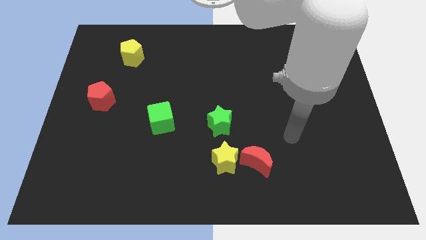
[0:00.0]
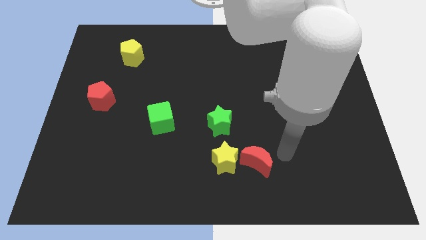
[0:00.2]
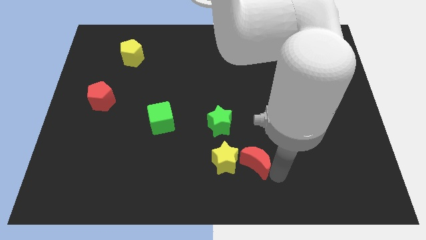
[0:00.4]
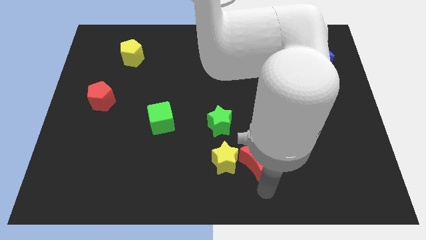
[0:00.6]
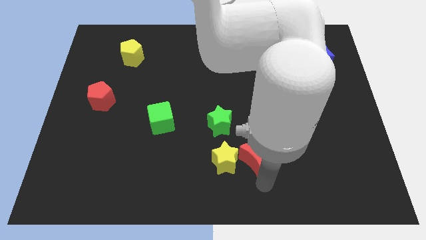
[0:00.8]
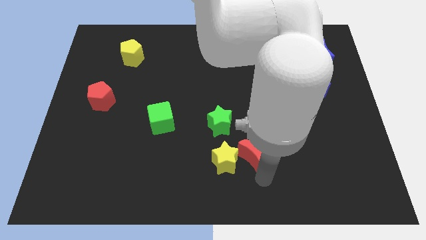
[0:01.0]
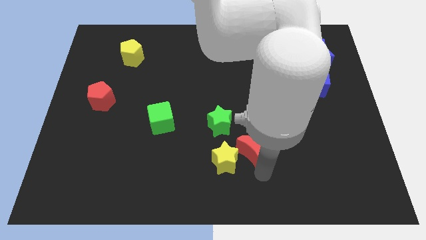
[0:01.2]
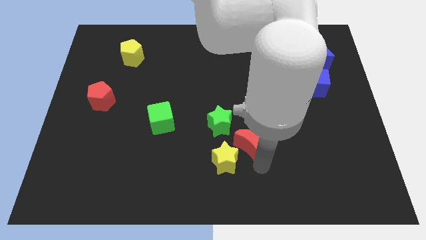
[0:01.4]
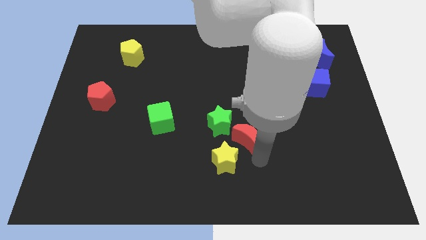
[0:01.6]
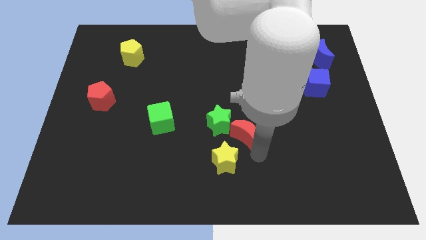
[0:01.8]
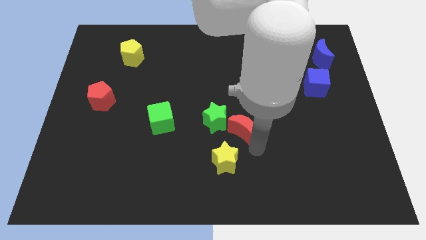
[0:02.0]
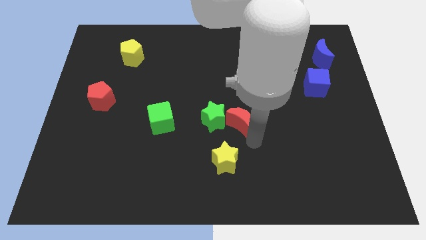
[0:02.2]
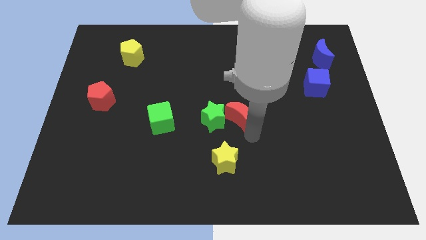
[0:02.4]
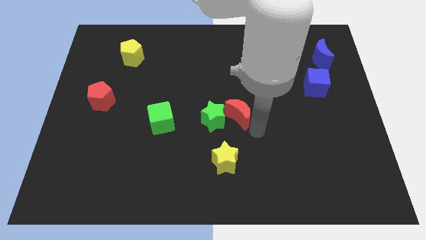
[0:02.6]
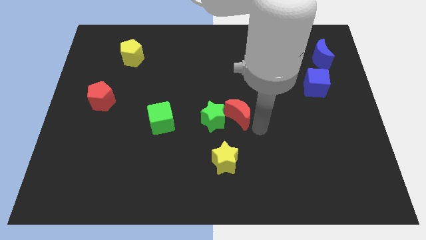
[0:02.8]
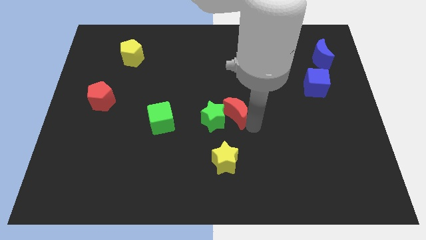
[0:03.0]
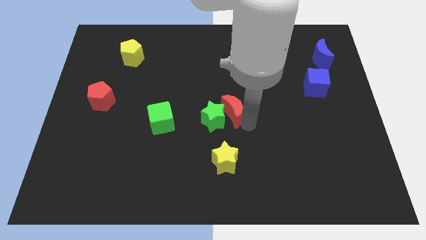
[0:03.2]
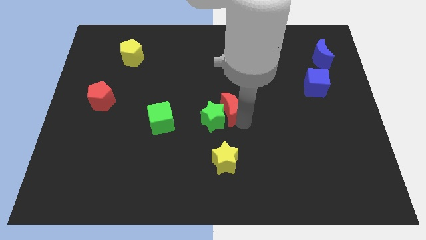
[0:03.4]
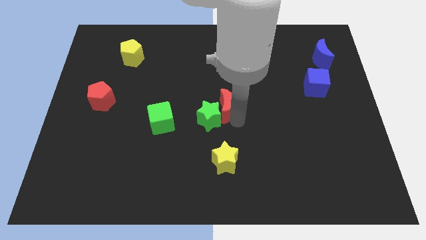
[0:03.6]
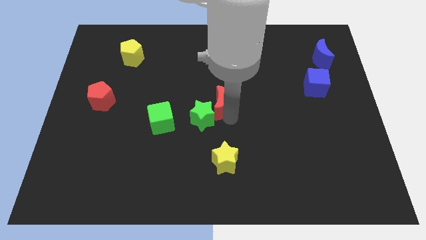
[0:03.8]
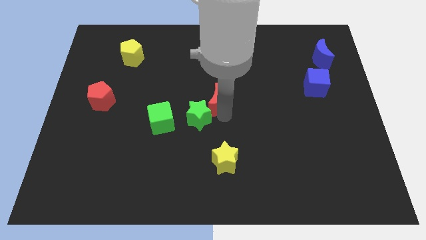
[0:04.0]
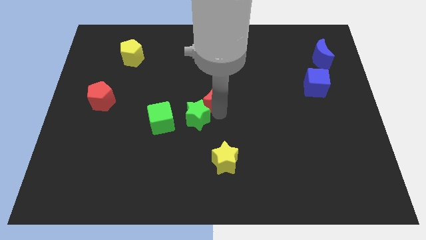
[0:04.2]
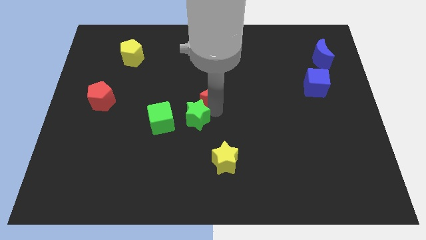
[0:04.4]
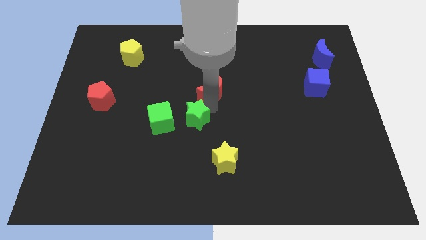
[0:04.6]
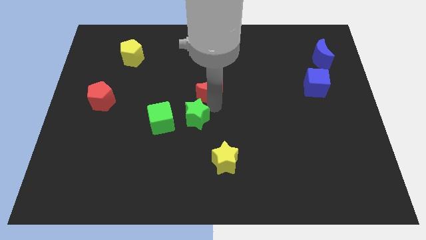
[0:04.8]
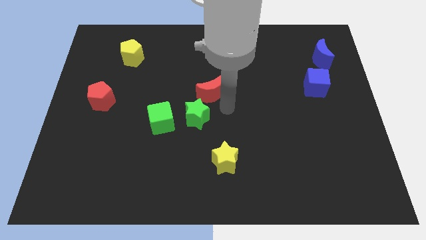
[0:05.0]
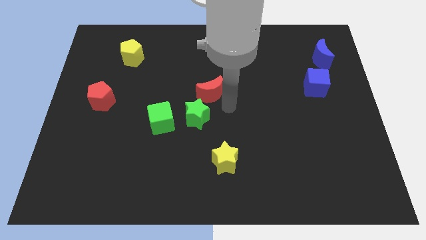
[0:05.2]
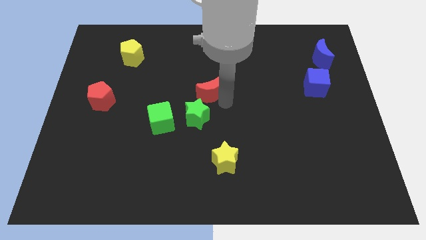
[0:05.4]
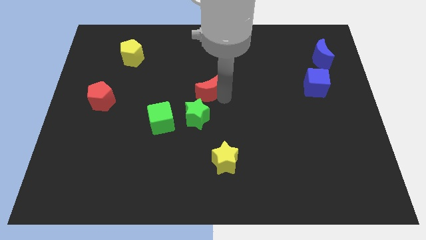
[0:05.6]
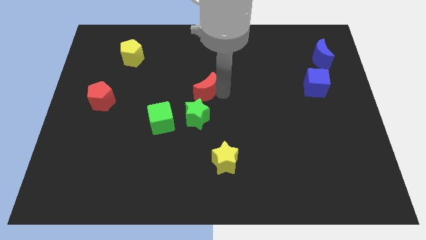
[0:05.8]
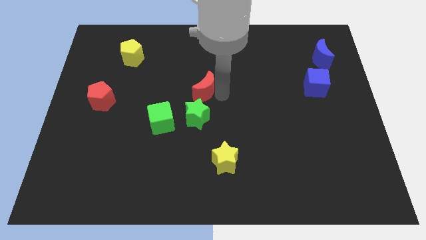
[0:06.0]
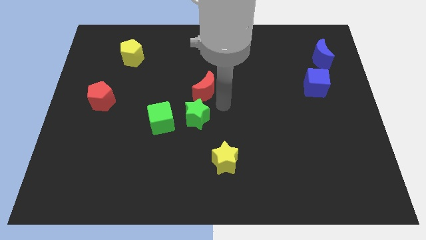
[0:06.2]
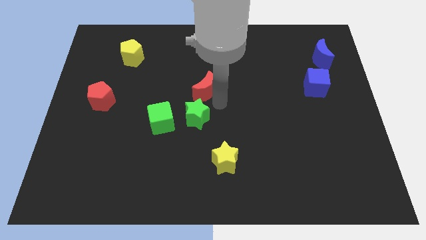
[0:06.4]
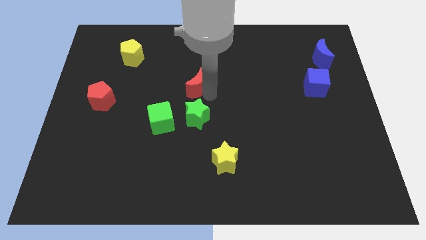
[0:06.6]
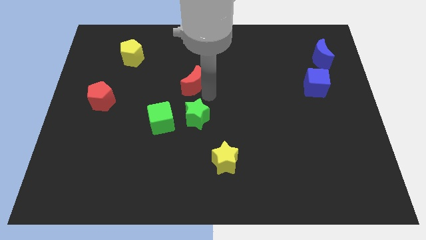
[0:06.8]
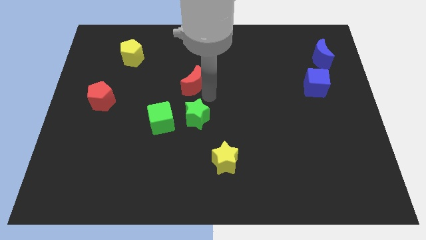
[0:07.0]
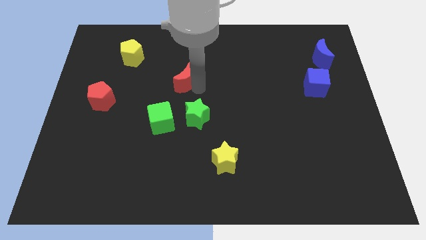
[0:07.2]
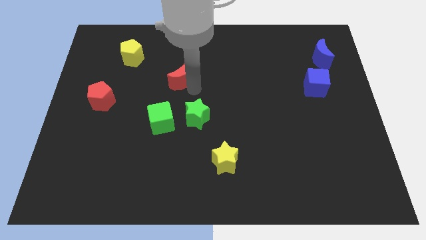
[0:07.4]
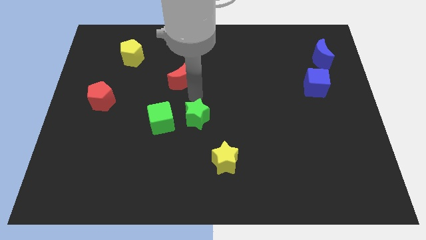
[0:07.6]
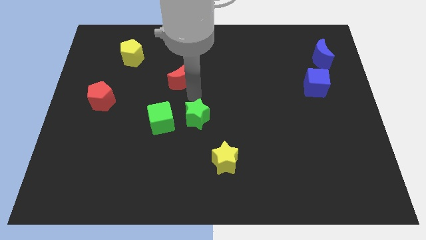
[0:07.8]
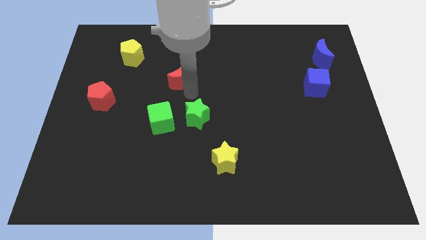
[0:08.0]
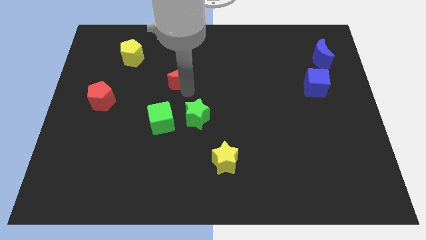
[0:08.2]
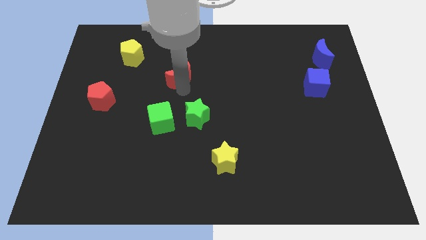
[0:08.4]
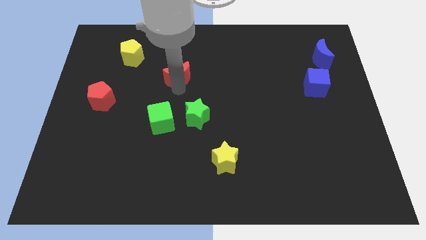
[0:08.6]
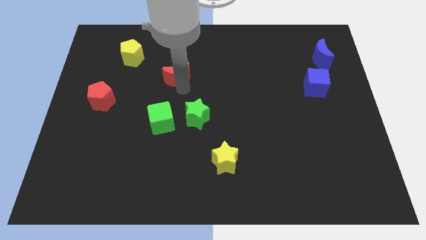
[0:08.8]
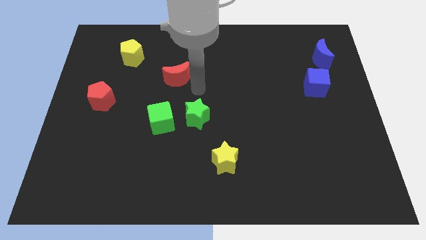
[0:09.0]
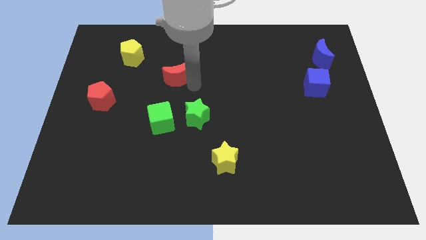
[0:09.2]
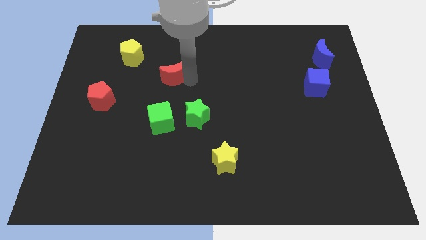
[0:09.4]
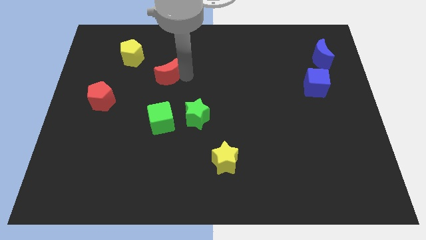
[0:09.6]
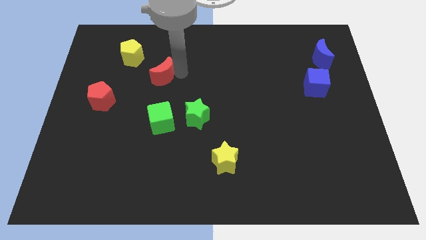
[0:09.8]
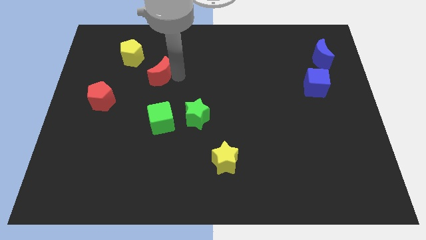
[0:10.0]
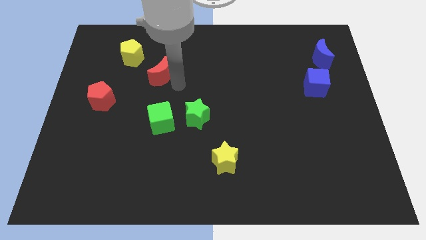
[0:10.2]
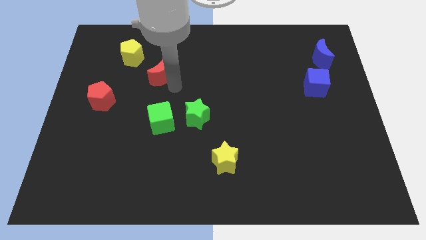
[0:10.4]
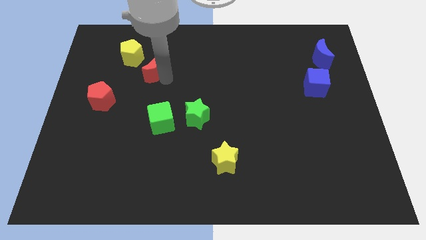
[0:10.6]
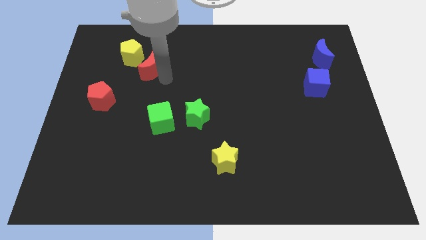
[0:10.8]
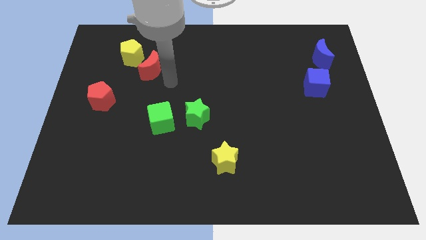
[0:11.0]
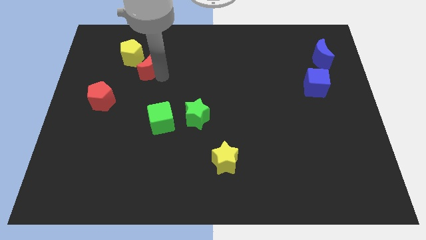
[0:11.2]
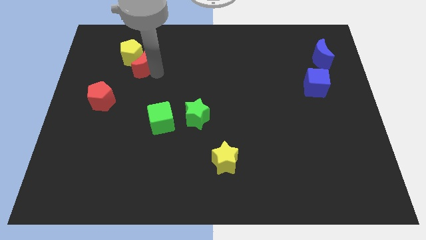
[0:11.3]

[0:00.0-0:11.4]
put the red moon close to the yellow pentagon
